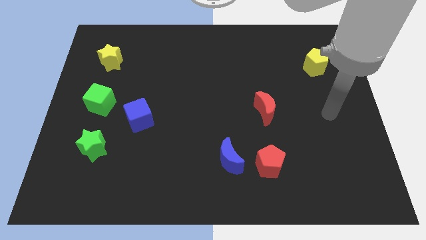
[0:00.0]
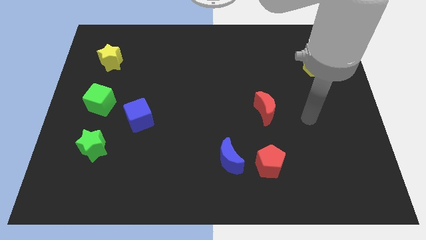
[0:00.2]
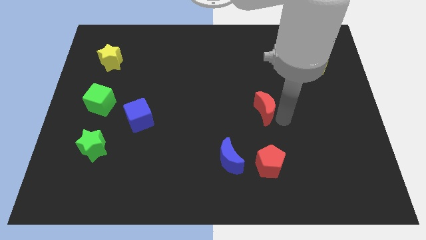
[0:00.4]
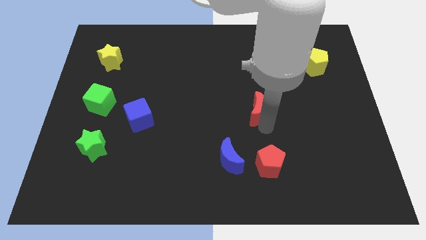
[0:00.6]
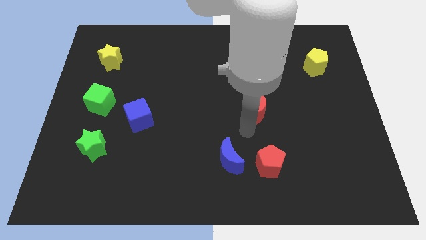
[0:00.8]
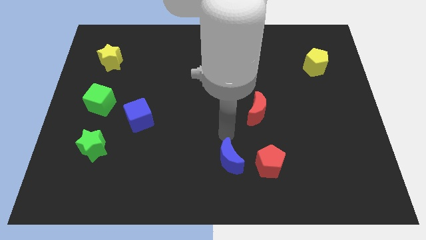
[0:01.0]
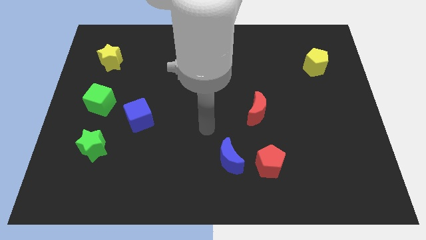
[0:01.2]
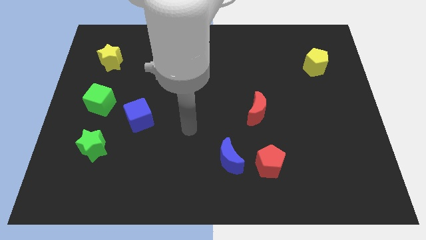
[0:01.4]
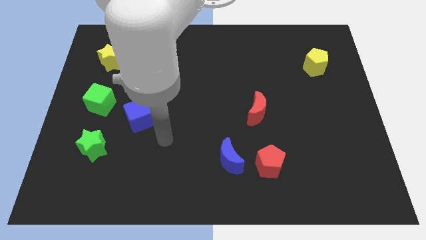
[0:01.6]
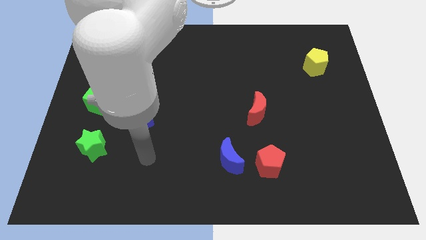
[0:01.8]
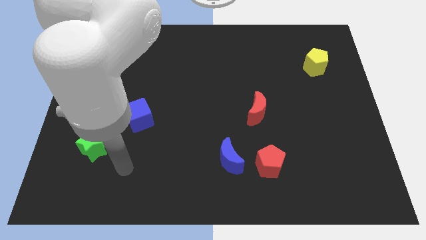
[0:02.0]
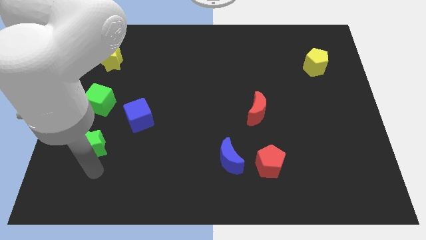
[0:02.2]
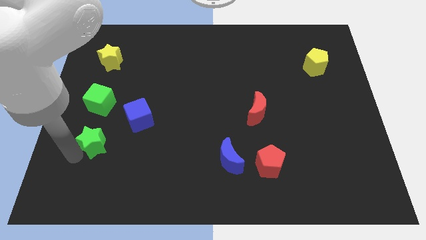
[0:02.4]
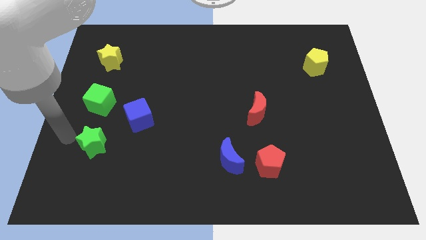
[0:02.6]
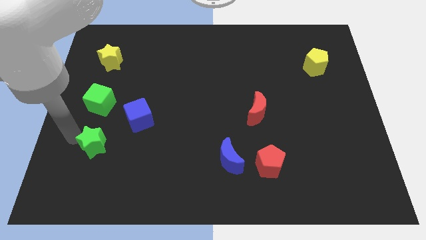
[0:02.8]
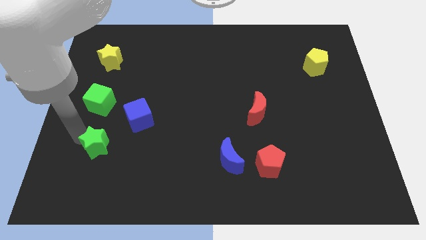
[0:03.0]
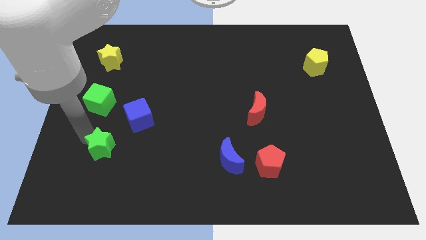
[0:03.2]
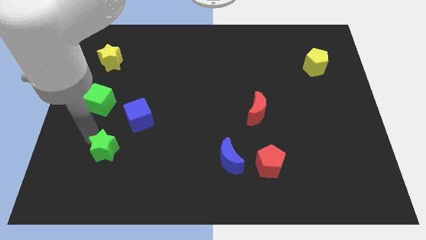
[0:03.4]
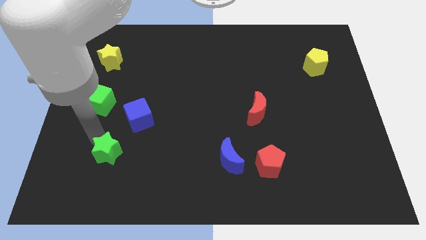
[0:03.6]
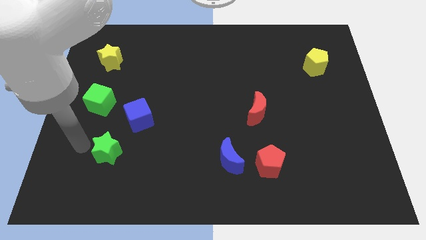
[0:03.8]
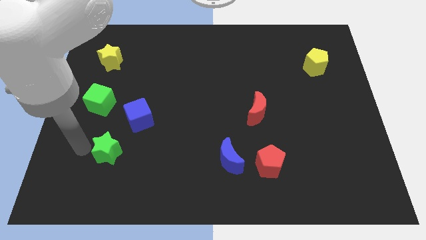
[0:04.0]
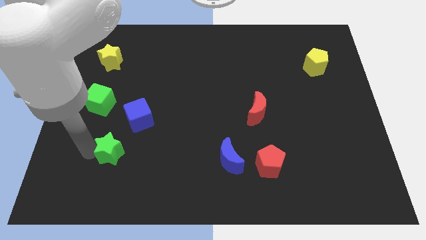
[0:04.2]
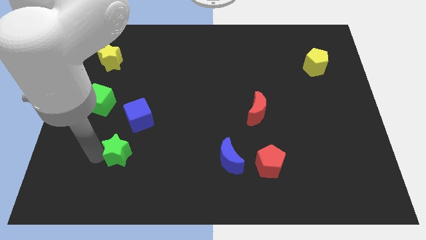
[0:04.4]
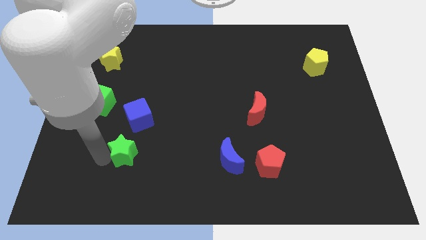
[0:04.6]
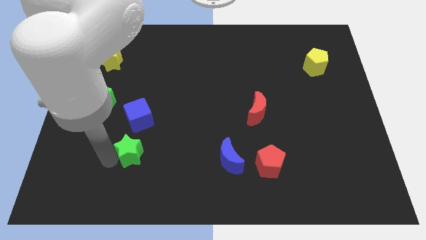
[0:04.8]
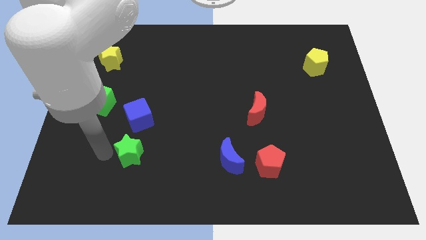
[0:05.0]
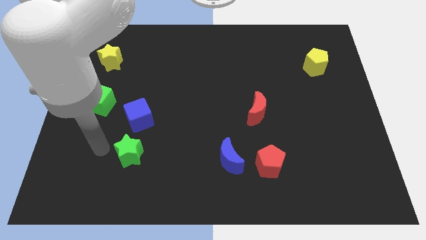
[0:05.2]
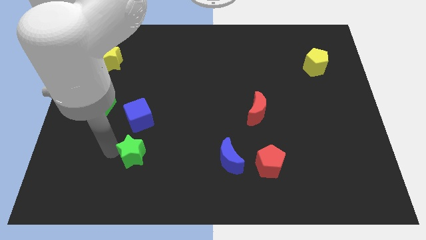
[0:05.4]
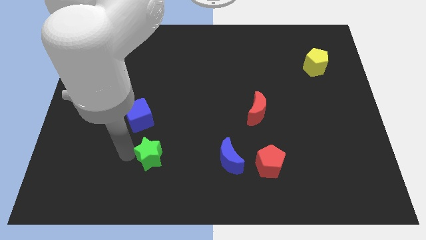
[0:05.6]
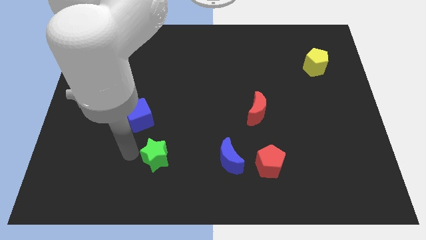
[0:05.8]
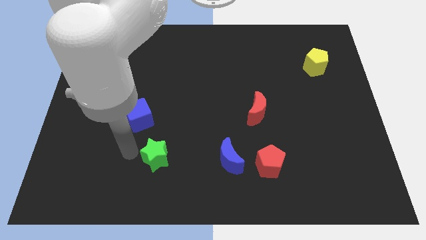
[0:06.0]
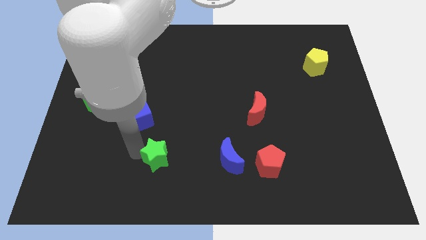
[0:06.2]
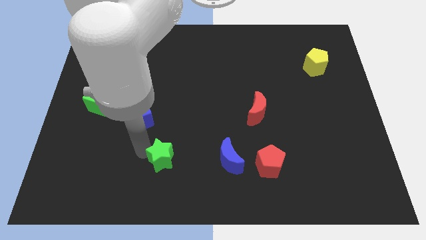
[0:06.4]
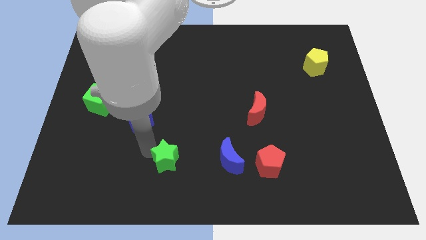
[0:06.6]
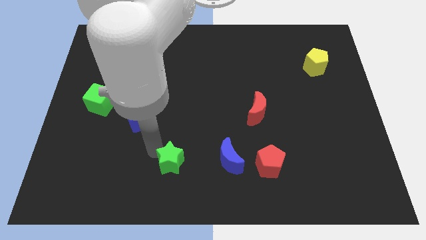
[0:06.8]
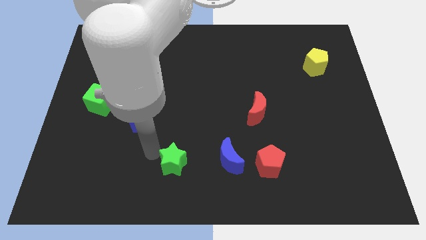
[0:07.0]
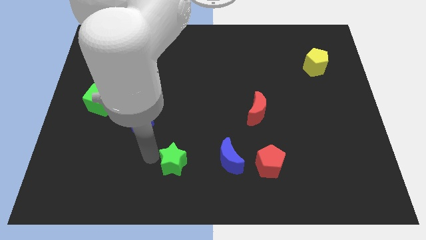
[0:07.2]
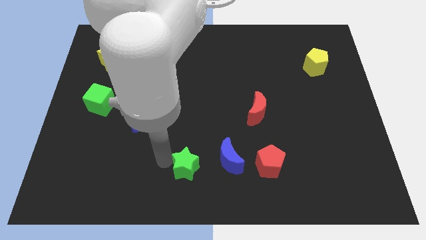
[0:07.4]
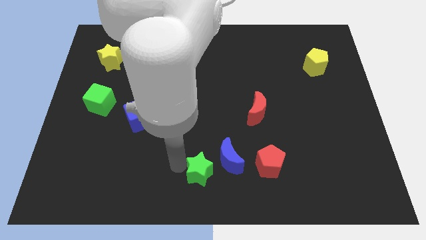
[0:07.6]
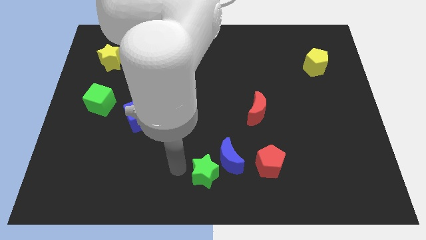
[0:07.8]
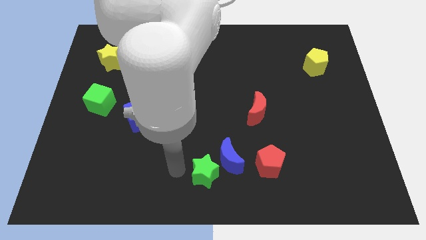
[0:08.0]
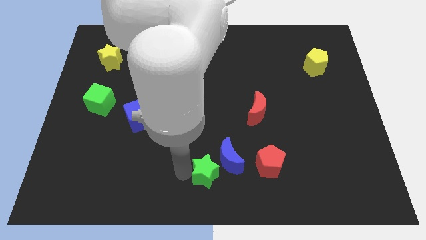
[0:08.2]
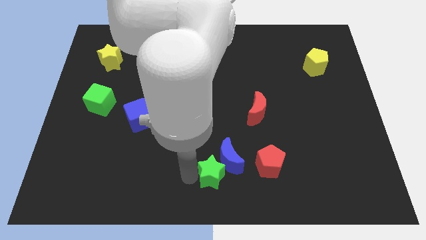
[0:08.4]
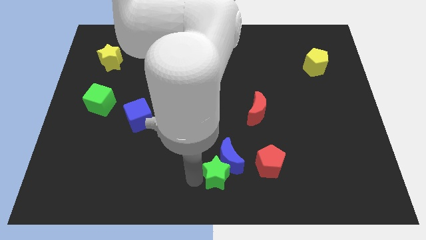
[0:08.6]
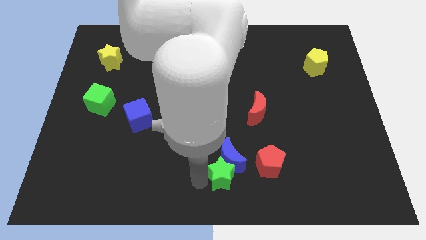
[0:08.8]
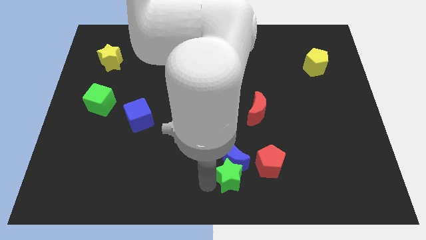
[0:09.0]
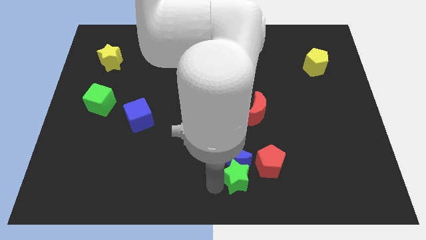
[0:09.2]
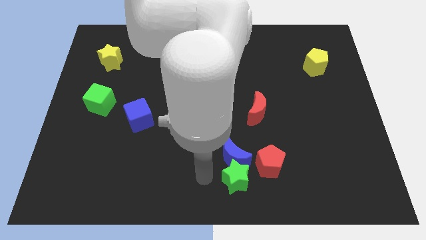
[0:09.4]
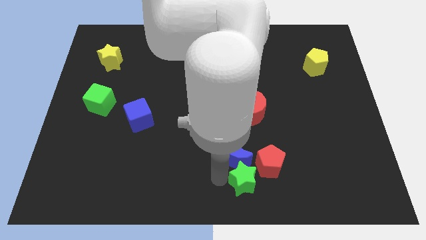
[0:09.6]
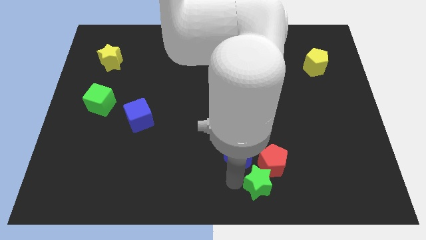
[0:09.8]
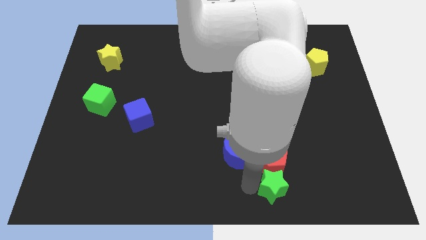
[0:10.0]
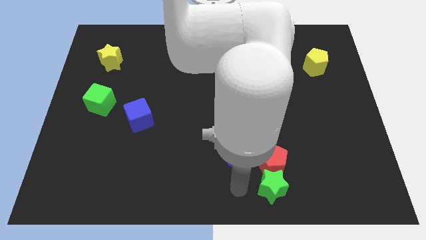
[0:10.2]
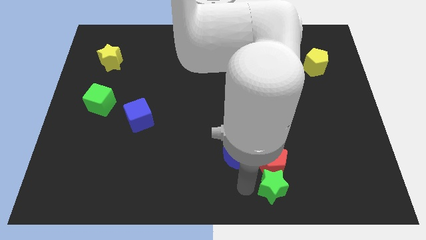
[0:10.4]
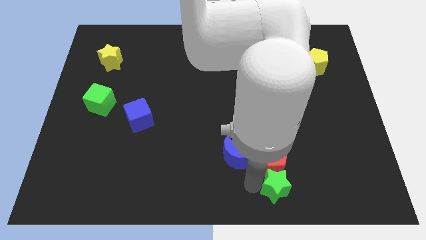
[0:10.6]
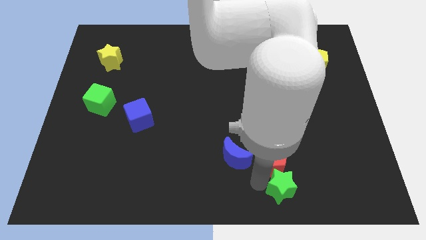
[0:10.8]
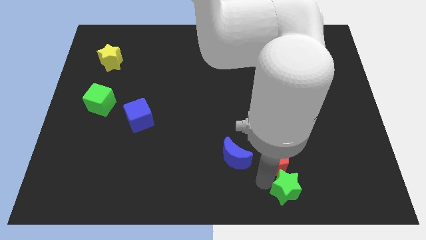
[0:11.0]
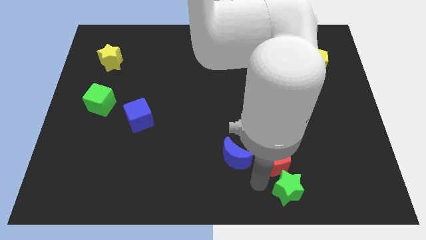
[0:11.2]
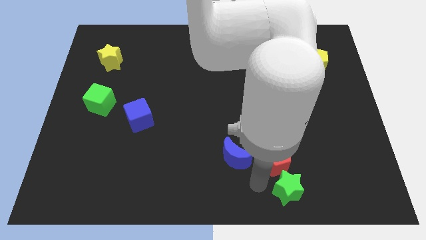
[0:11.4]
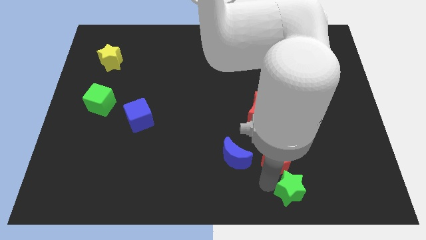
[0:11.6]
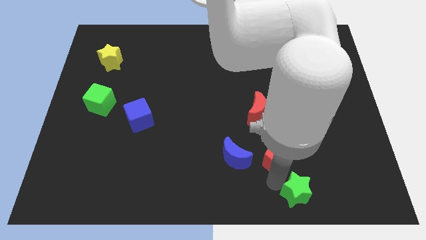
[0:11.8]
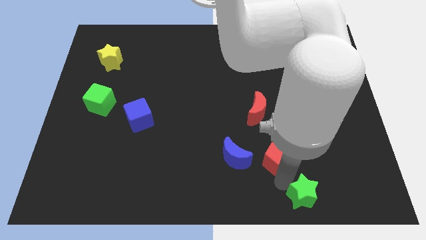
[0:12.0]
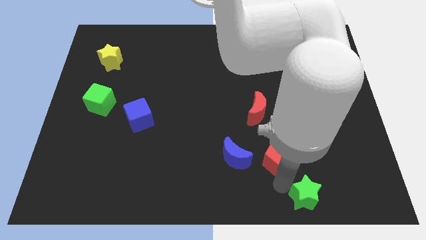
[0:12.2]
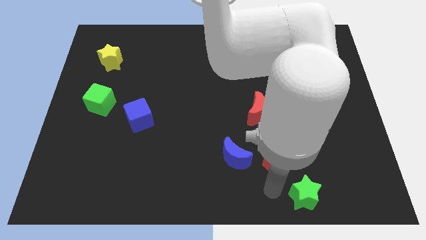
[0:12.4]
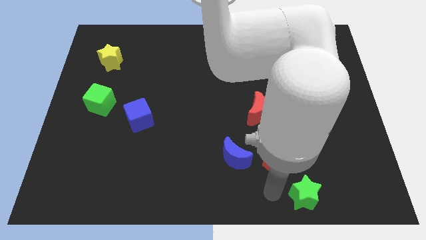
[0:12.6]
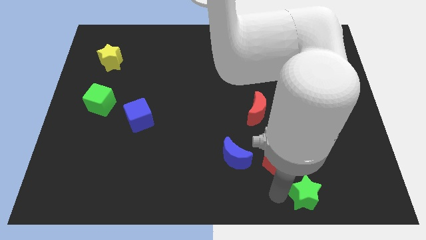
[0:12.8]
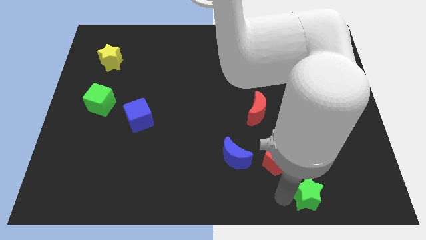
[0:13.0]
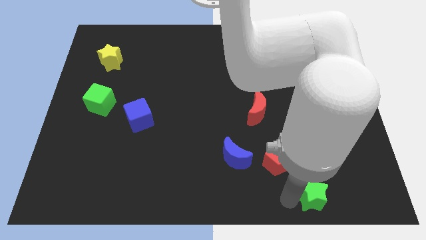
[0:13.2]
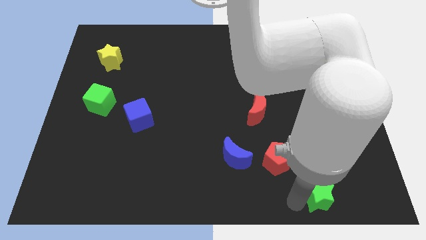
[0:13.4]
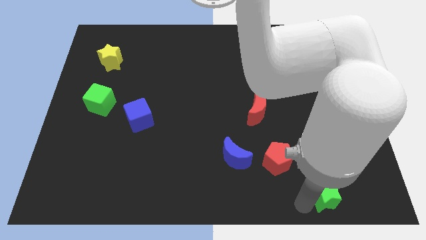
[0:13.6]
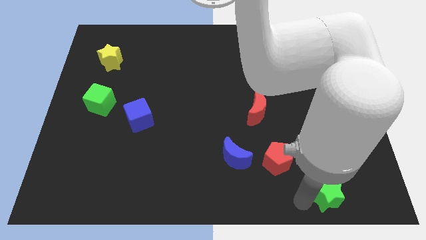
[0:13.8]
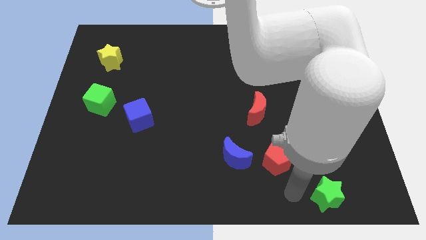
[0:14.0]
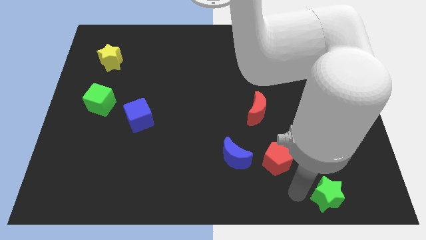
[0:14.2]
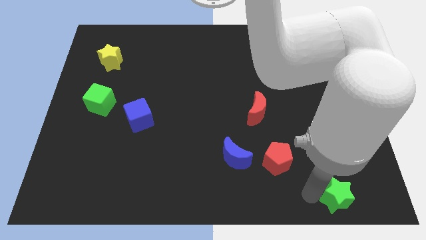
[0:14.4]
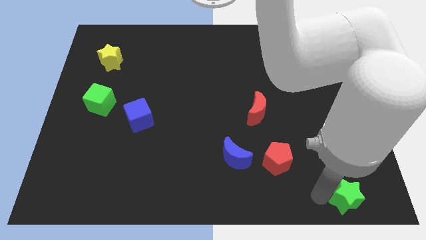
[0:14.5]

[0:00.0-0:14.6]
move the green star to the bottom right of the board
